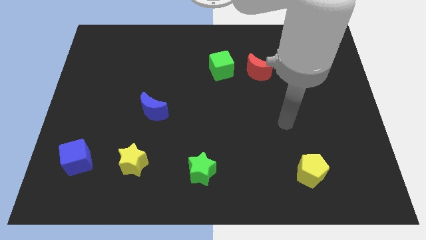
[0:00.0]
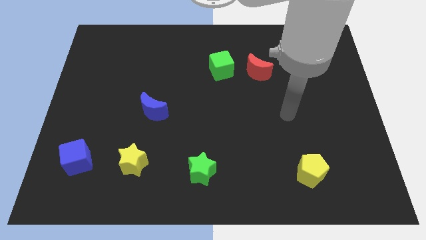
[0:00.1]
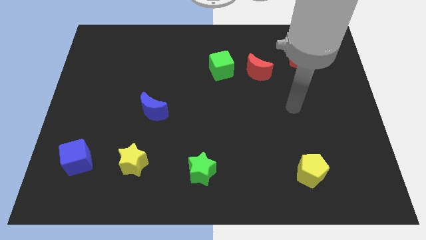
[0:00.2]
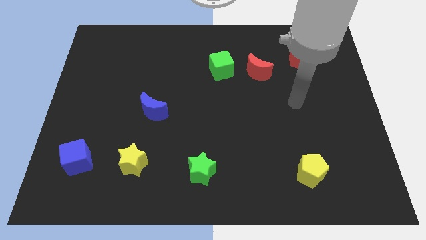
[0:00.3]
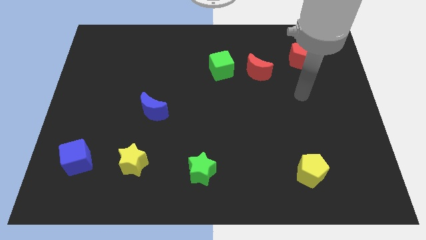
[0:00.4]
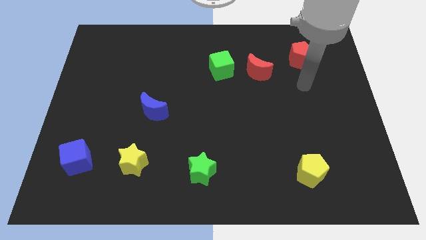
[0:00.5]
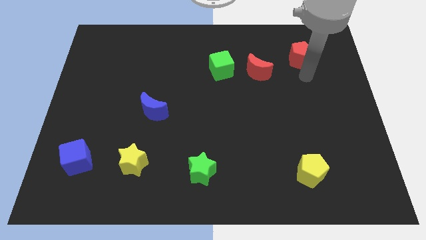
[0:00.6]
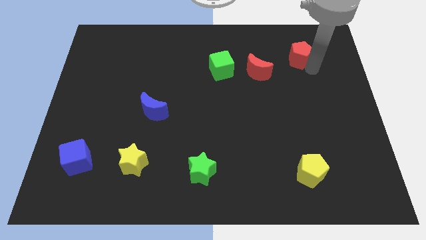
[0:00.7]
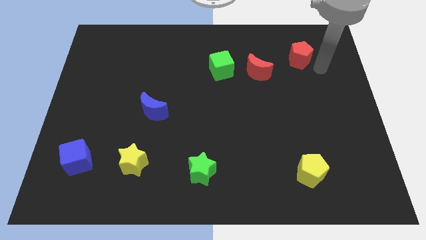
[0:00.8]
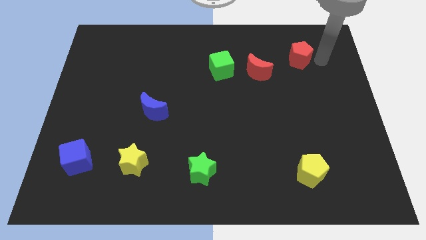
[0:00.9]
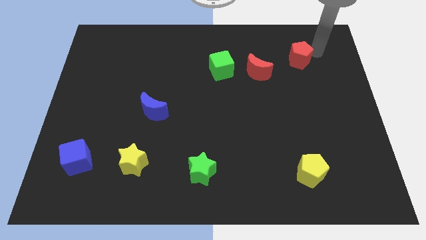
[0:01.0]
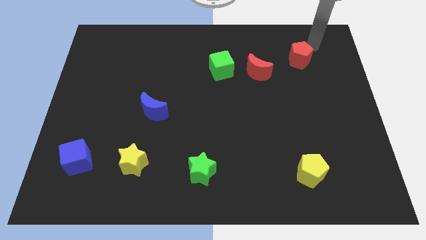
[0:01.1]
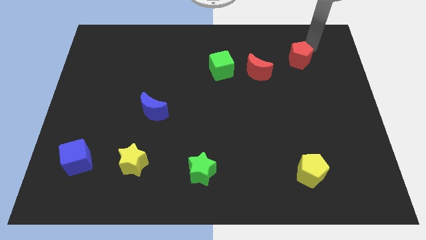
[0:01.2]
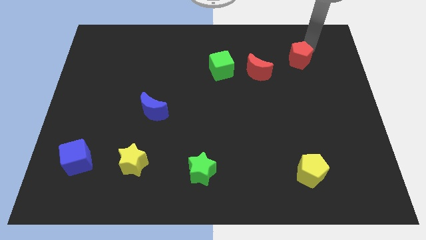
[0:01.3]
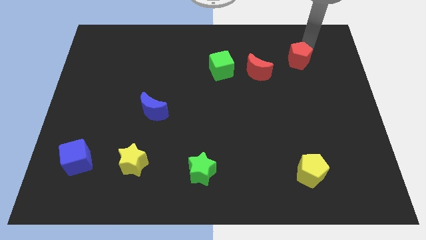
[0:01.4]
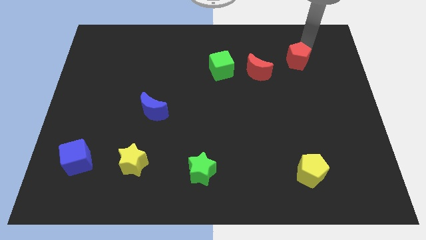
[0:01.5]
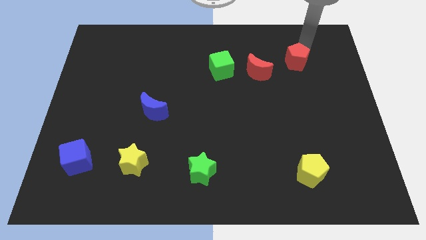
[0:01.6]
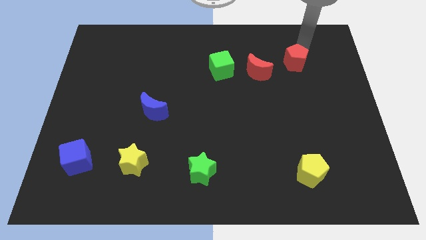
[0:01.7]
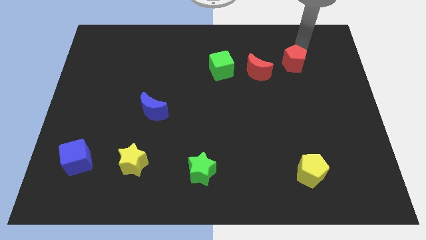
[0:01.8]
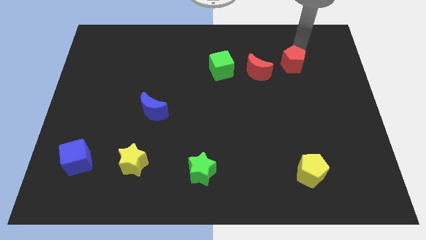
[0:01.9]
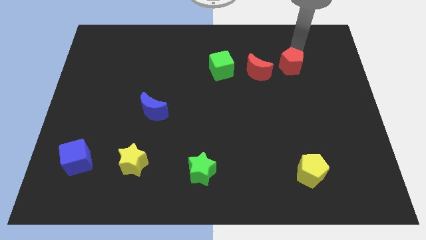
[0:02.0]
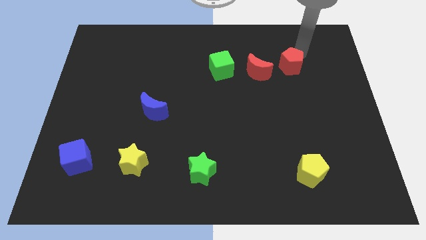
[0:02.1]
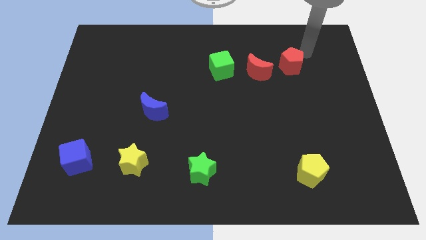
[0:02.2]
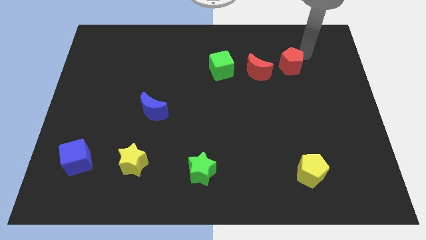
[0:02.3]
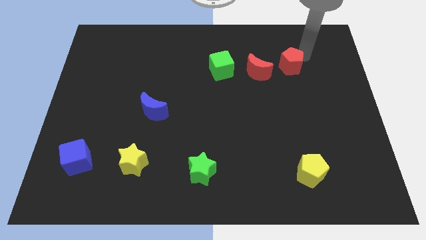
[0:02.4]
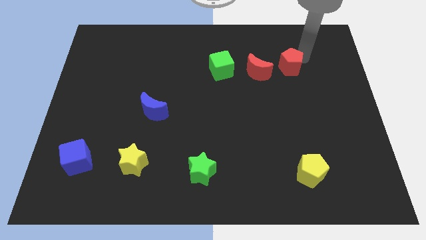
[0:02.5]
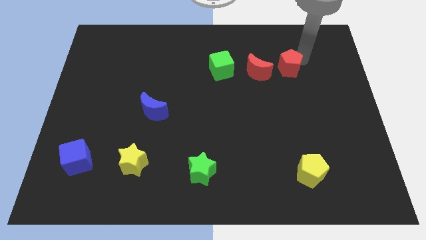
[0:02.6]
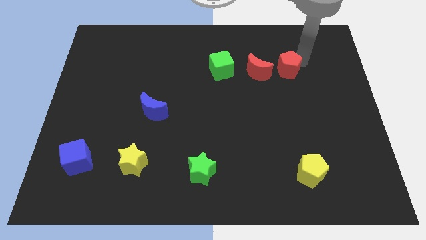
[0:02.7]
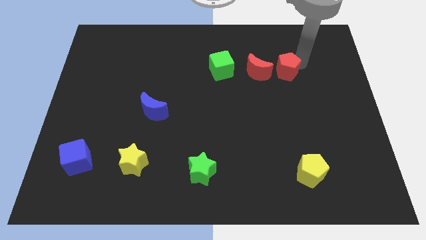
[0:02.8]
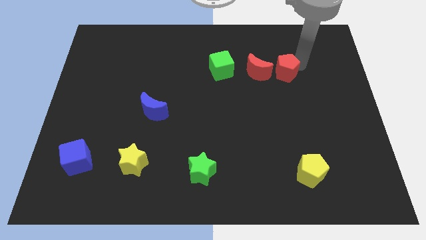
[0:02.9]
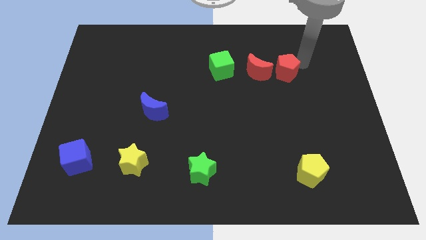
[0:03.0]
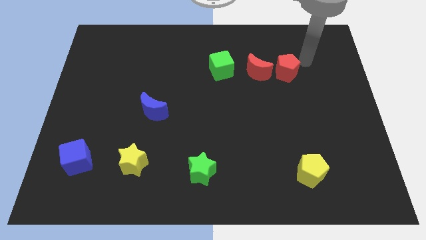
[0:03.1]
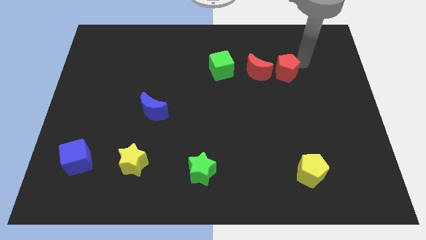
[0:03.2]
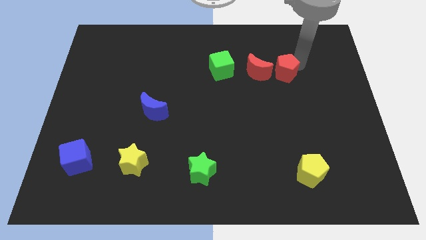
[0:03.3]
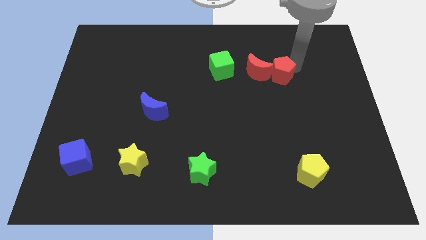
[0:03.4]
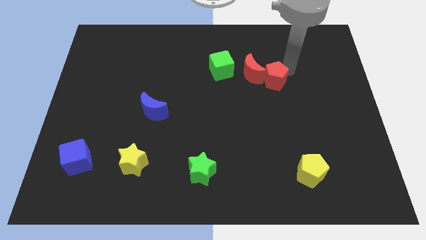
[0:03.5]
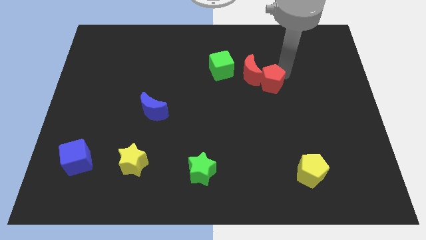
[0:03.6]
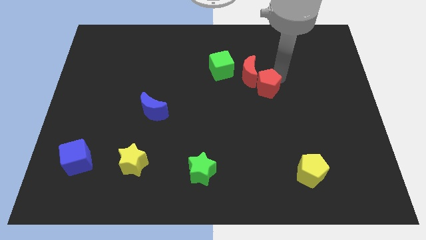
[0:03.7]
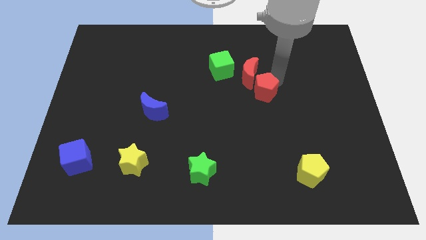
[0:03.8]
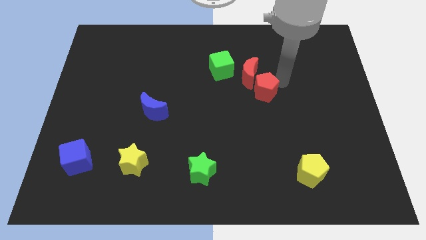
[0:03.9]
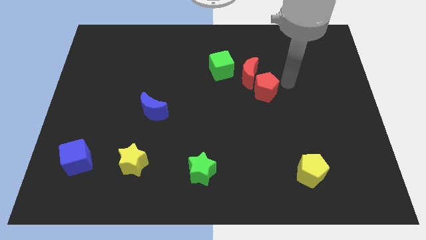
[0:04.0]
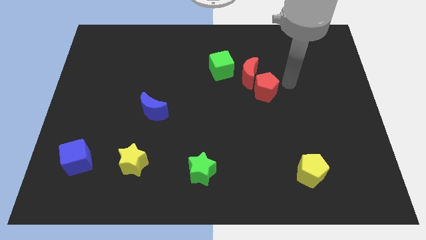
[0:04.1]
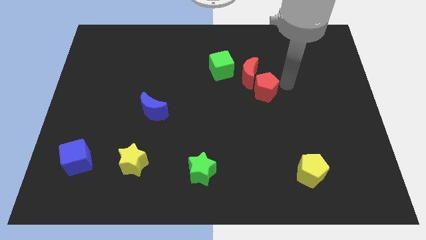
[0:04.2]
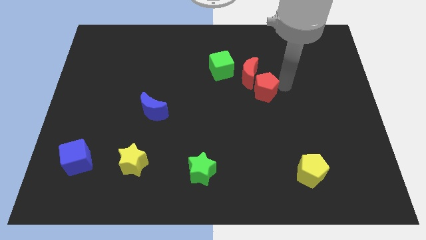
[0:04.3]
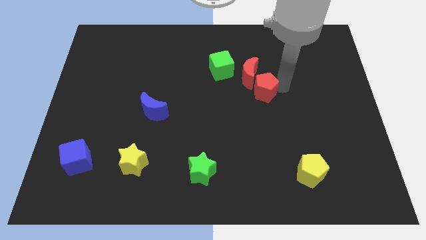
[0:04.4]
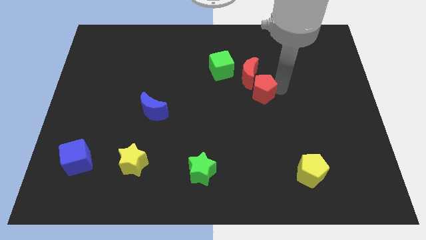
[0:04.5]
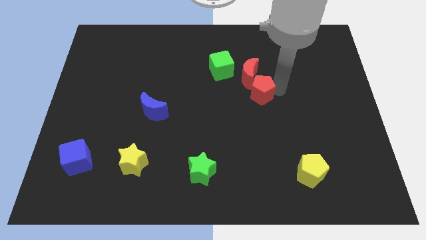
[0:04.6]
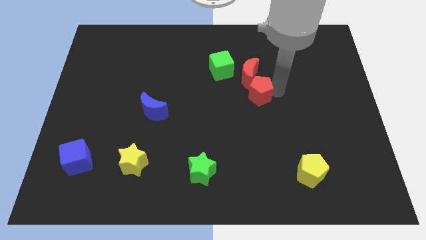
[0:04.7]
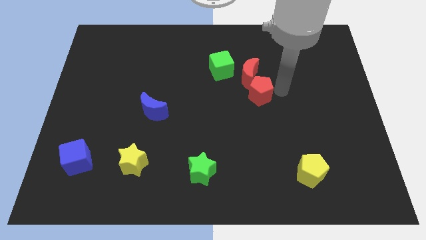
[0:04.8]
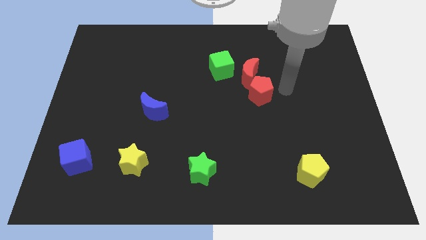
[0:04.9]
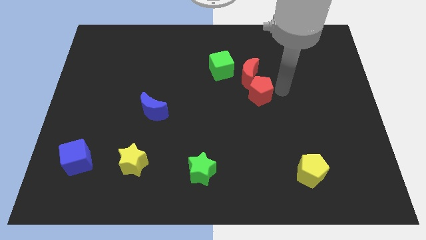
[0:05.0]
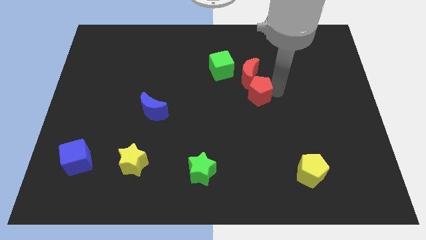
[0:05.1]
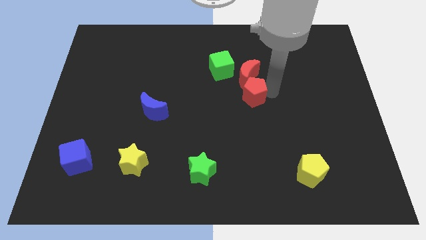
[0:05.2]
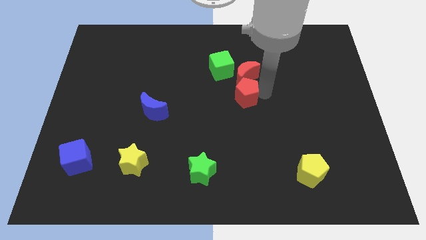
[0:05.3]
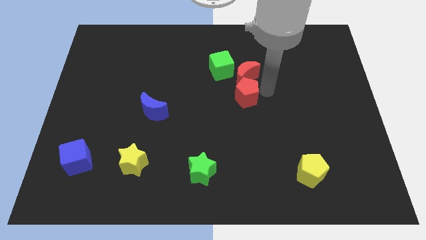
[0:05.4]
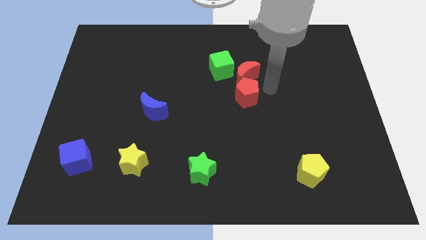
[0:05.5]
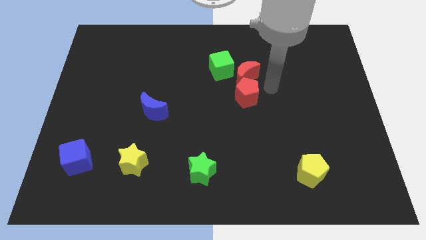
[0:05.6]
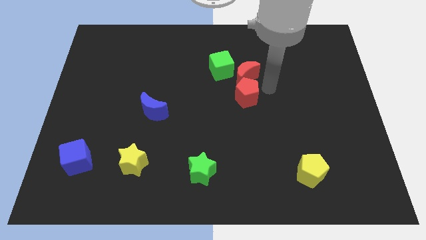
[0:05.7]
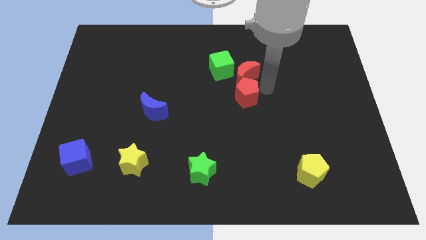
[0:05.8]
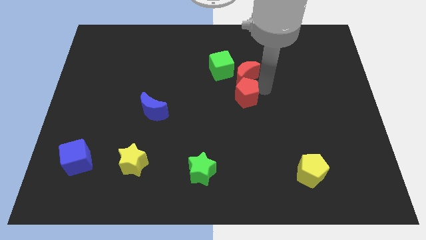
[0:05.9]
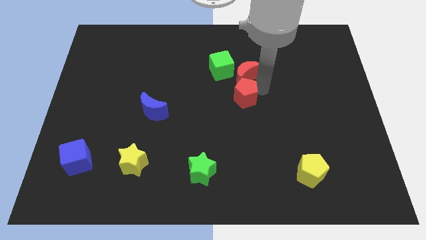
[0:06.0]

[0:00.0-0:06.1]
slide the red pentagon down and then left

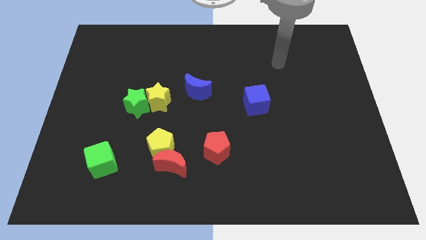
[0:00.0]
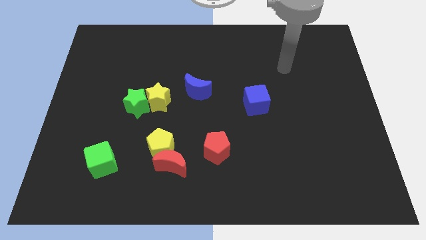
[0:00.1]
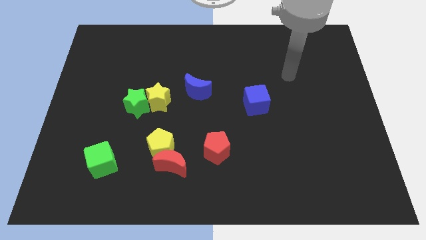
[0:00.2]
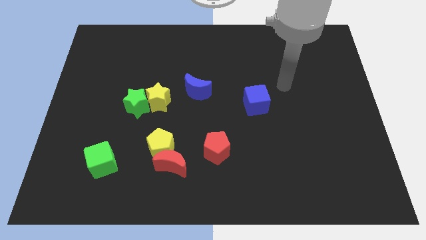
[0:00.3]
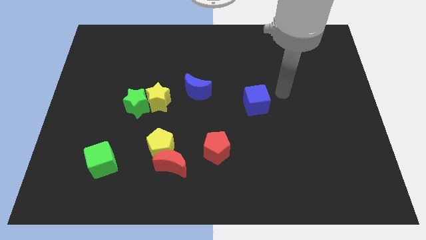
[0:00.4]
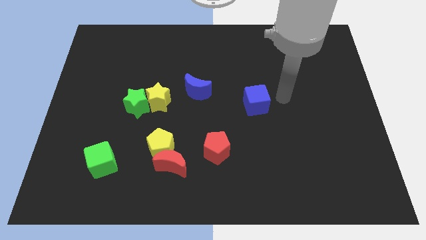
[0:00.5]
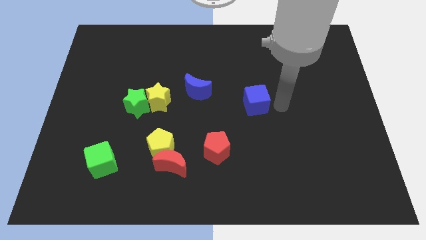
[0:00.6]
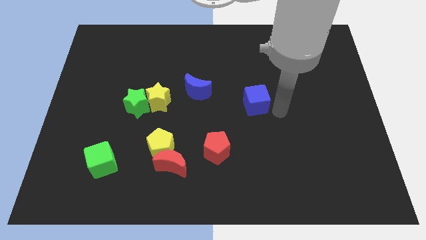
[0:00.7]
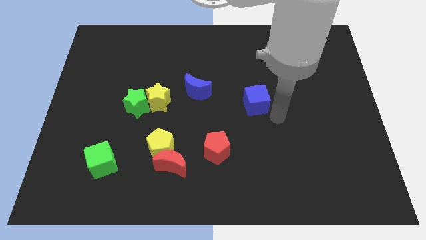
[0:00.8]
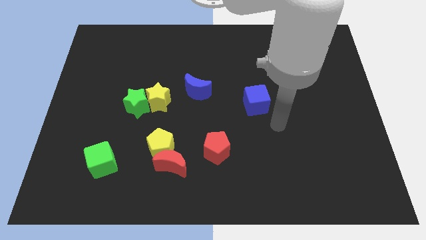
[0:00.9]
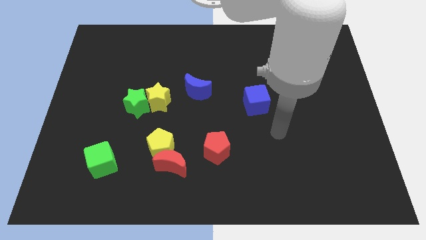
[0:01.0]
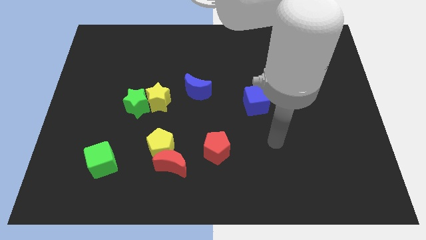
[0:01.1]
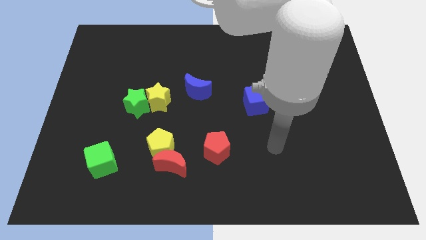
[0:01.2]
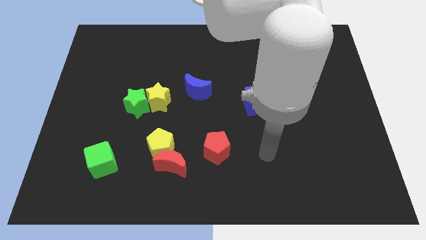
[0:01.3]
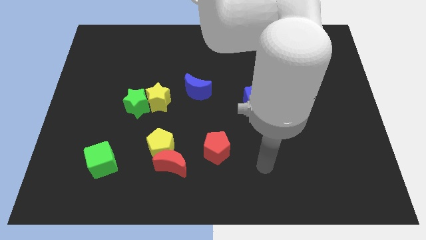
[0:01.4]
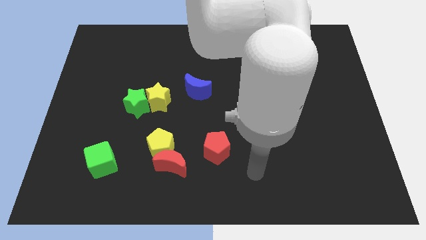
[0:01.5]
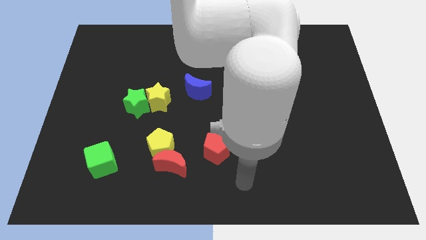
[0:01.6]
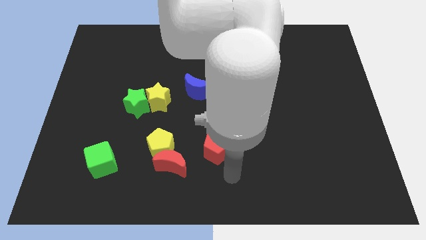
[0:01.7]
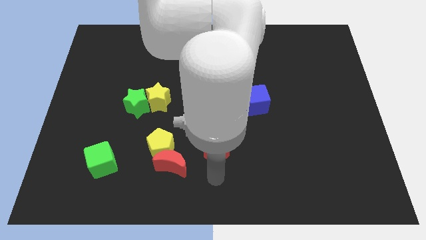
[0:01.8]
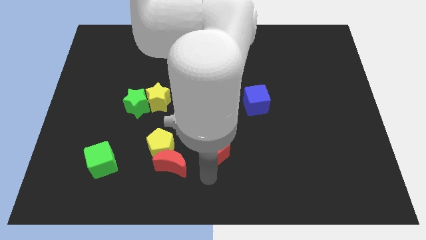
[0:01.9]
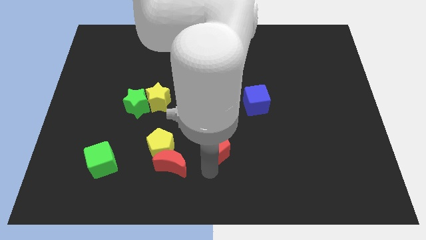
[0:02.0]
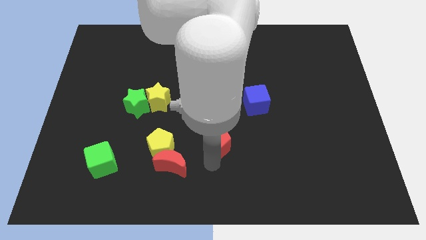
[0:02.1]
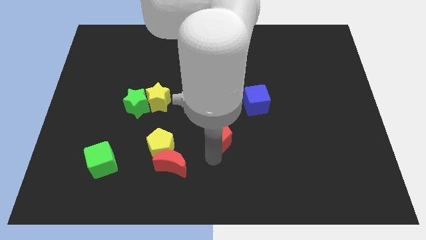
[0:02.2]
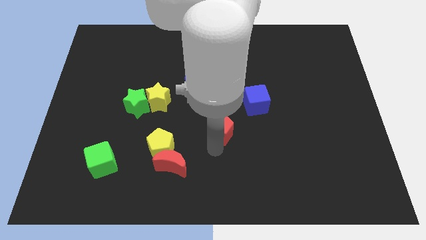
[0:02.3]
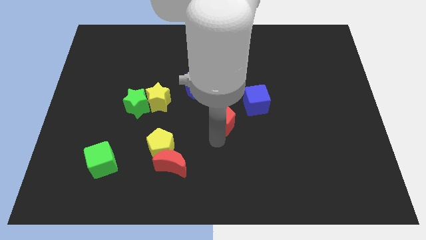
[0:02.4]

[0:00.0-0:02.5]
slightly slide the red pentagon up
